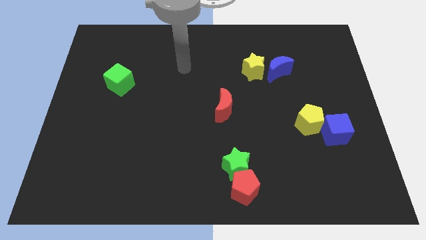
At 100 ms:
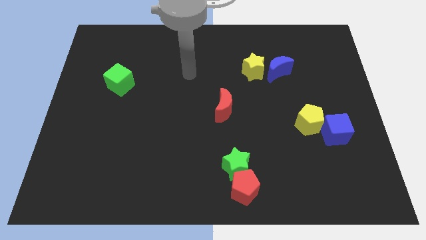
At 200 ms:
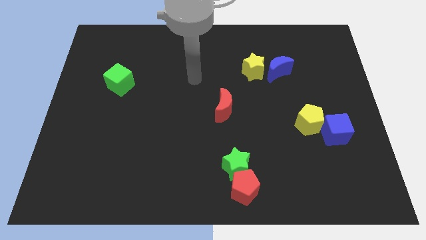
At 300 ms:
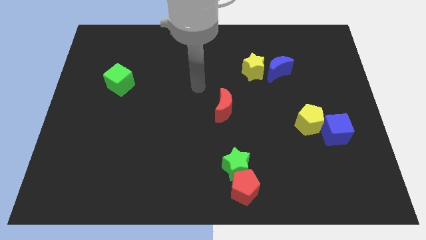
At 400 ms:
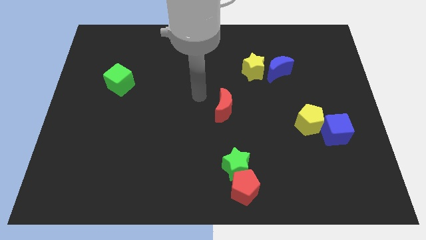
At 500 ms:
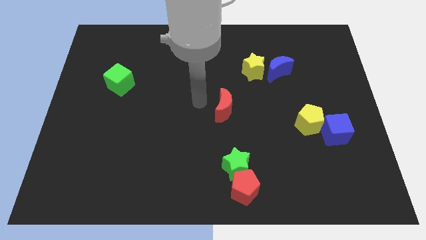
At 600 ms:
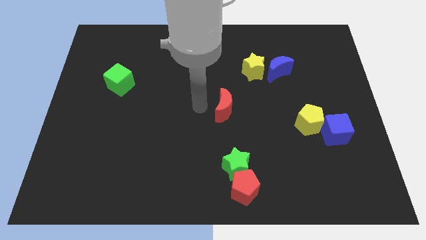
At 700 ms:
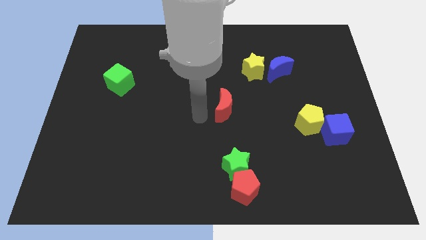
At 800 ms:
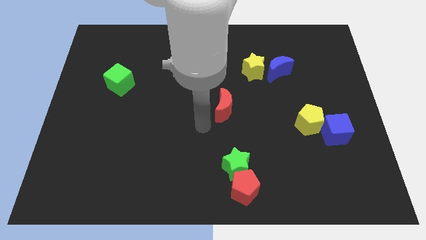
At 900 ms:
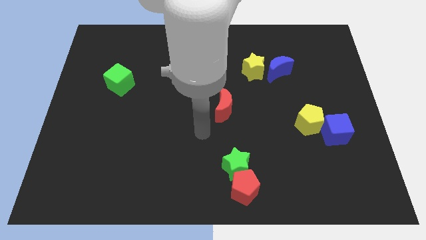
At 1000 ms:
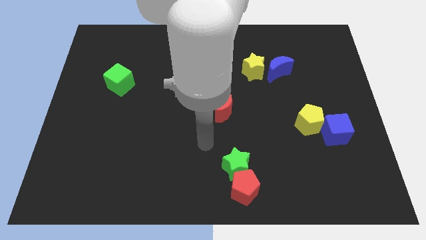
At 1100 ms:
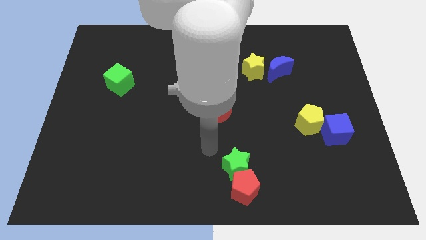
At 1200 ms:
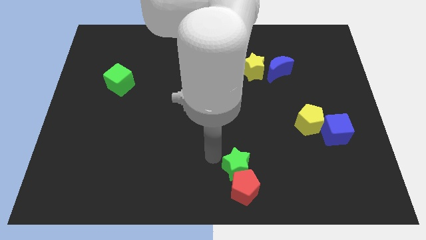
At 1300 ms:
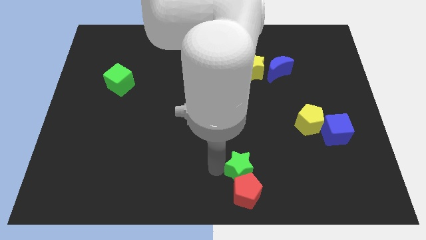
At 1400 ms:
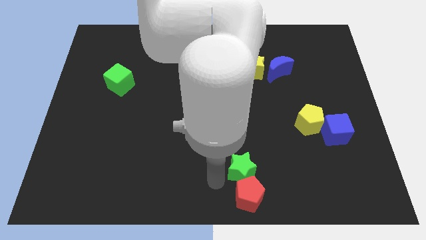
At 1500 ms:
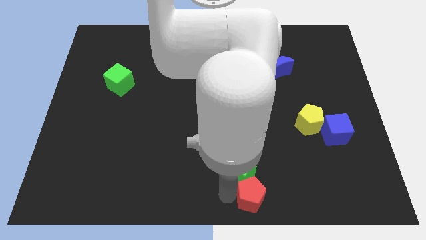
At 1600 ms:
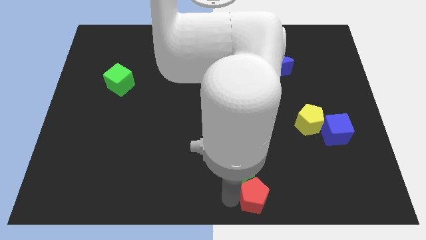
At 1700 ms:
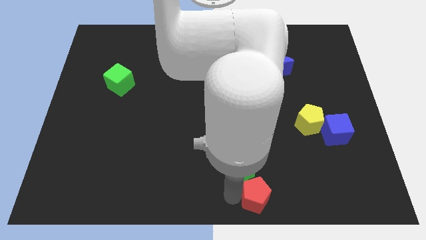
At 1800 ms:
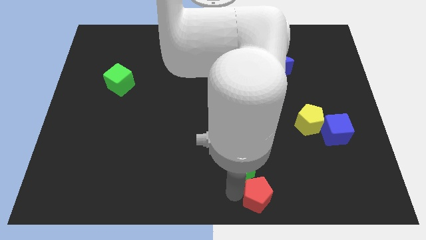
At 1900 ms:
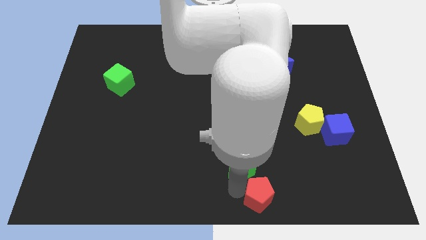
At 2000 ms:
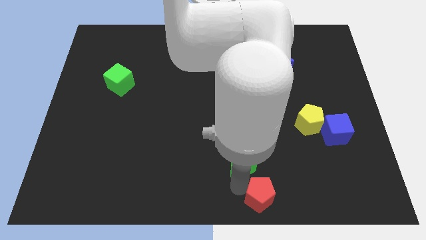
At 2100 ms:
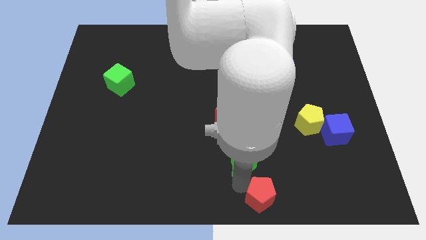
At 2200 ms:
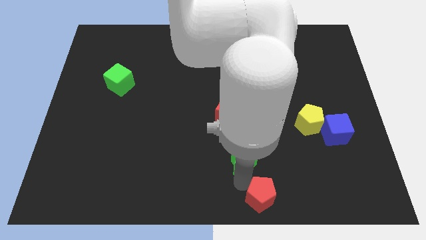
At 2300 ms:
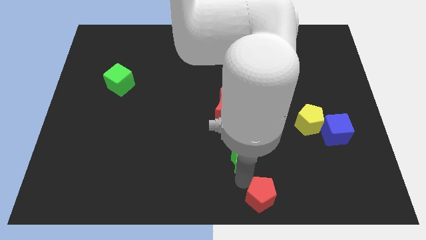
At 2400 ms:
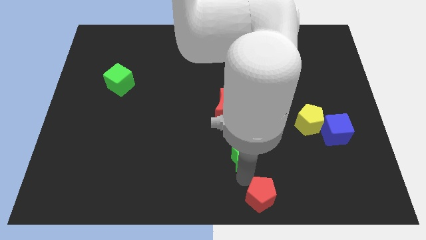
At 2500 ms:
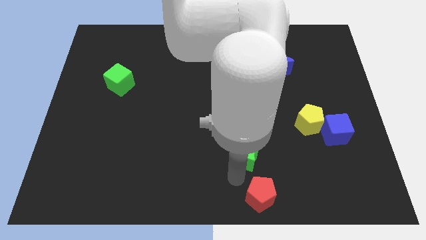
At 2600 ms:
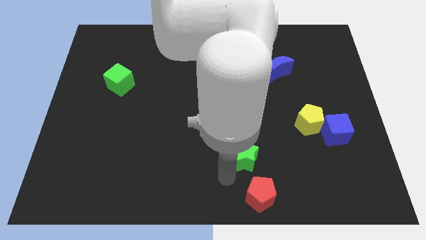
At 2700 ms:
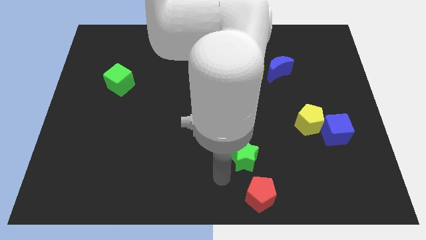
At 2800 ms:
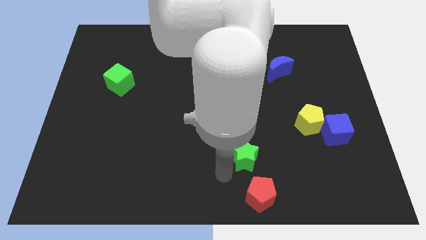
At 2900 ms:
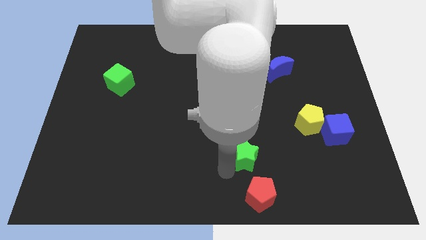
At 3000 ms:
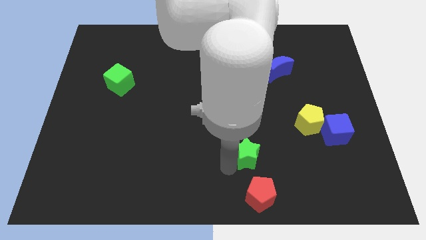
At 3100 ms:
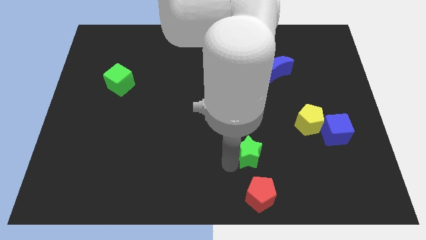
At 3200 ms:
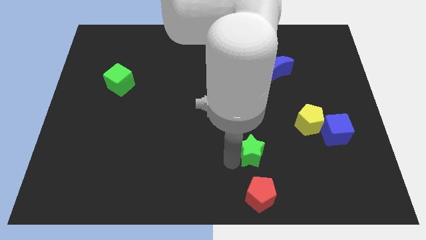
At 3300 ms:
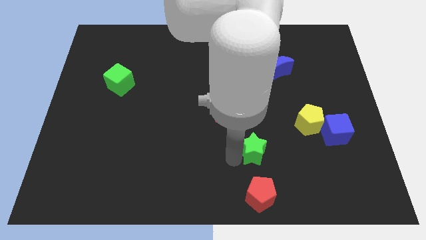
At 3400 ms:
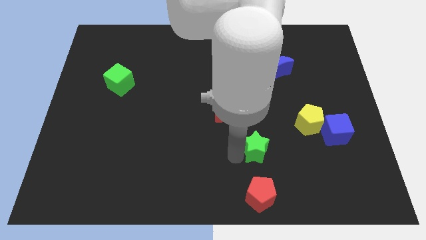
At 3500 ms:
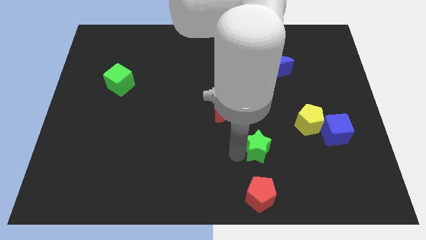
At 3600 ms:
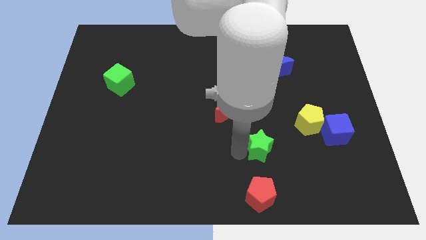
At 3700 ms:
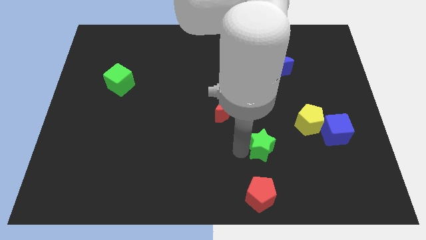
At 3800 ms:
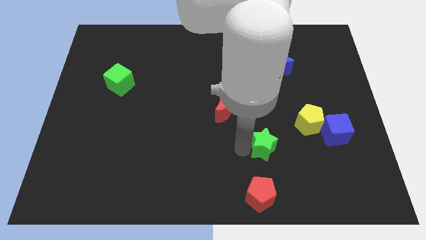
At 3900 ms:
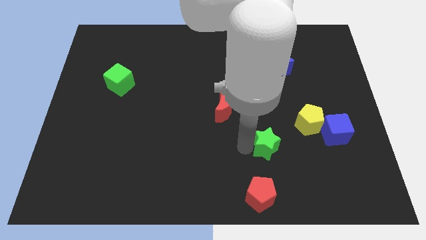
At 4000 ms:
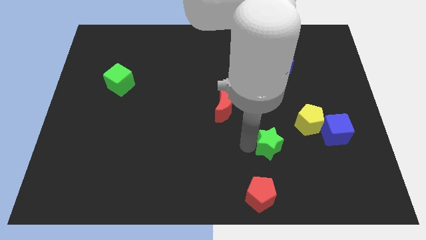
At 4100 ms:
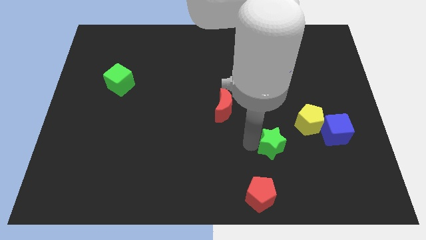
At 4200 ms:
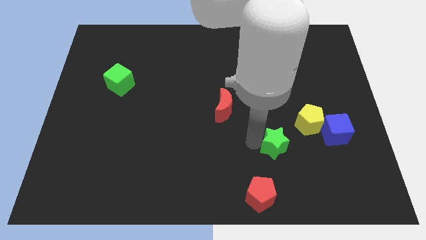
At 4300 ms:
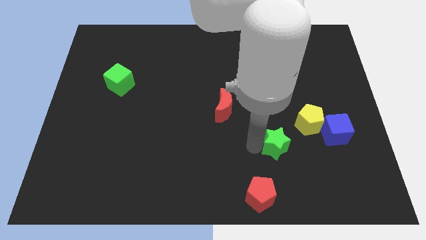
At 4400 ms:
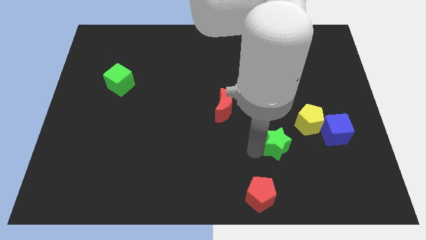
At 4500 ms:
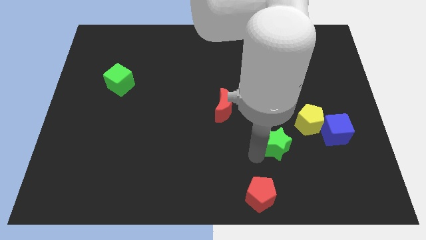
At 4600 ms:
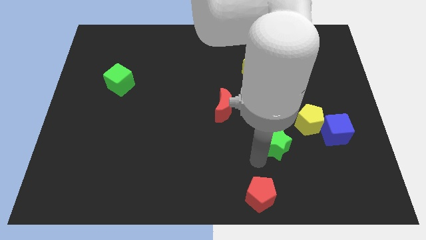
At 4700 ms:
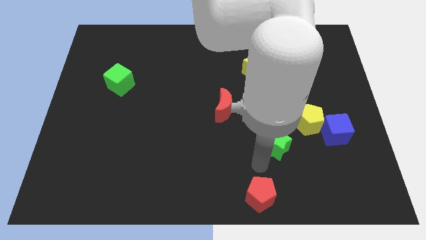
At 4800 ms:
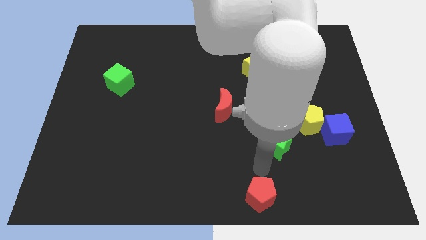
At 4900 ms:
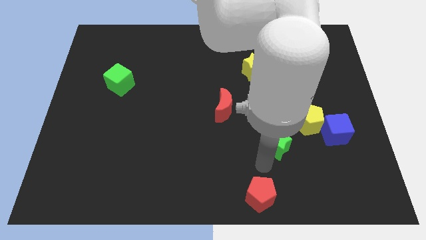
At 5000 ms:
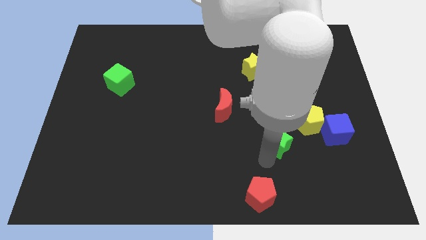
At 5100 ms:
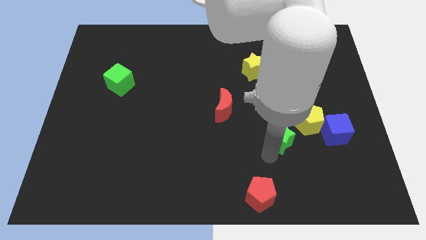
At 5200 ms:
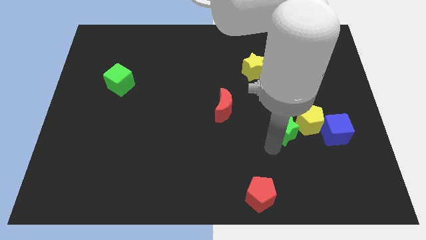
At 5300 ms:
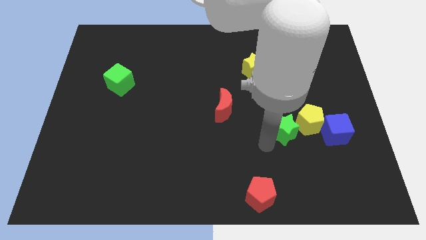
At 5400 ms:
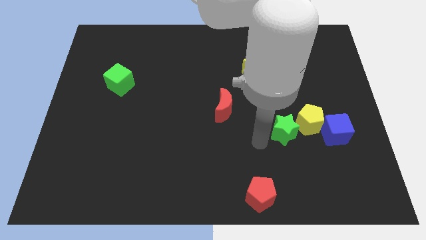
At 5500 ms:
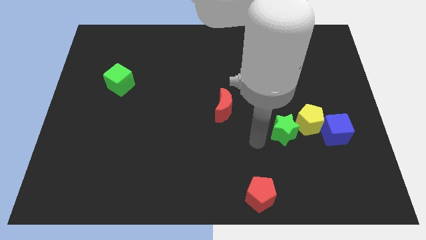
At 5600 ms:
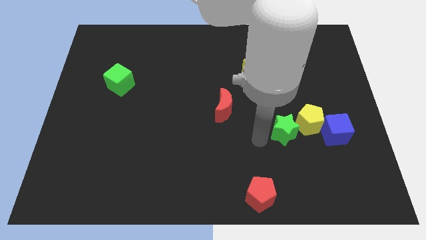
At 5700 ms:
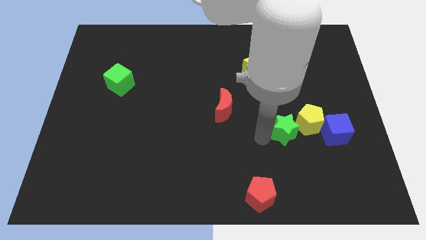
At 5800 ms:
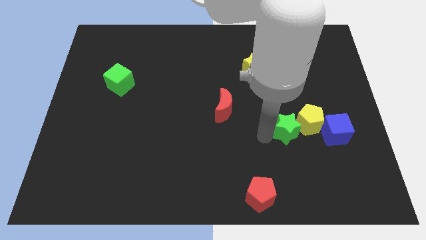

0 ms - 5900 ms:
slide the green star close to the yellow pentagon

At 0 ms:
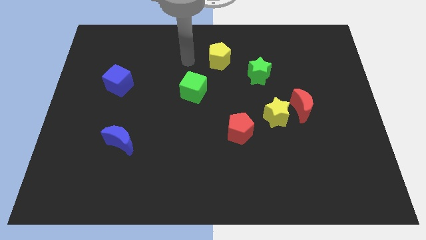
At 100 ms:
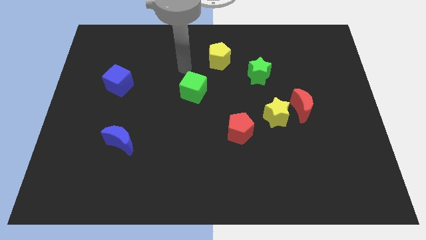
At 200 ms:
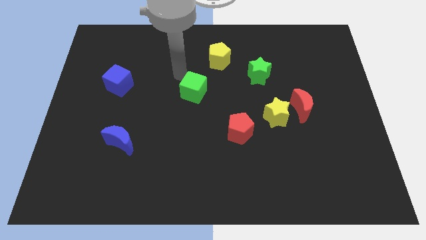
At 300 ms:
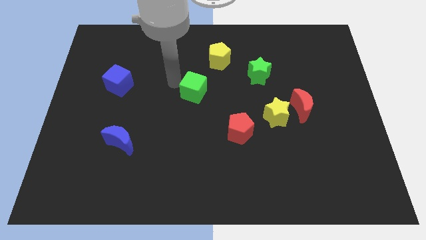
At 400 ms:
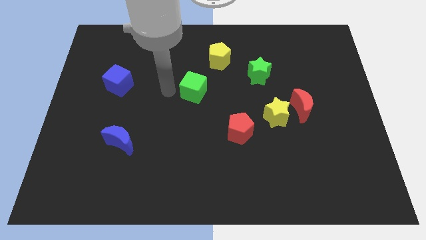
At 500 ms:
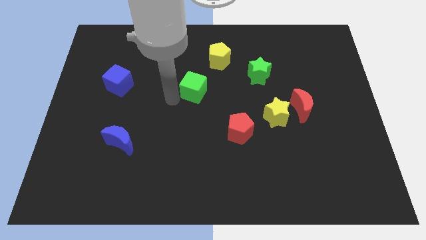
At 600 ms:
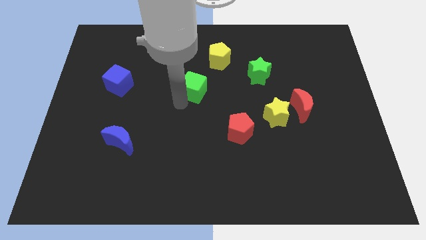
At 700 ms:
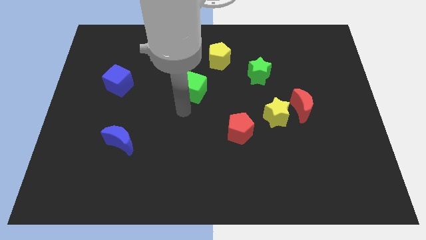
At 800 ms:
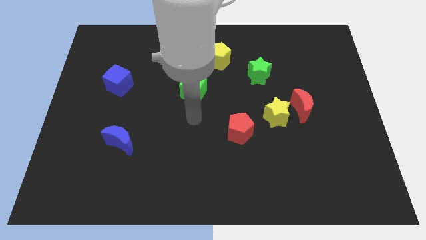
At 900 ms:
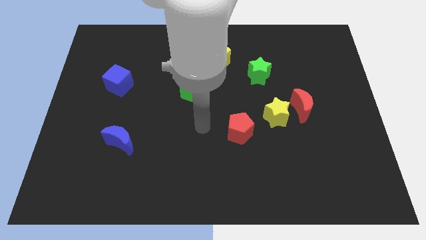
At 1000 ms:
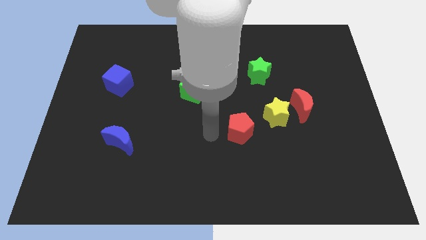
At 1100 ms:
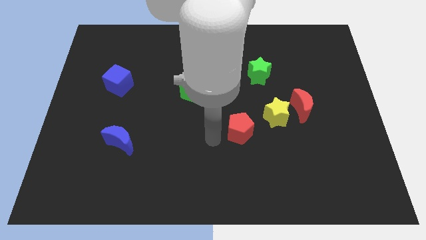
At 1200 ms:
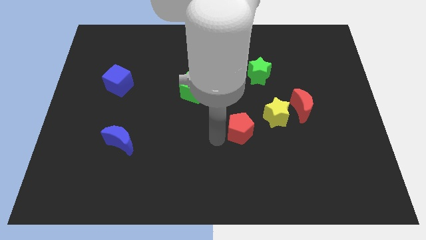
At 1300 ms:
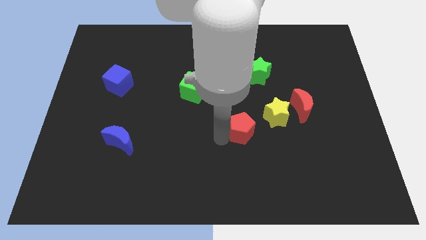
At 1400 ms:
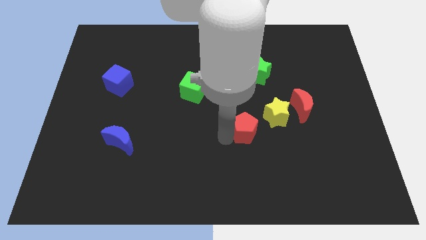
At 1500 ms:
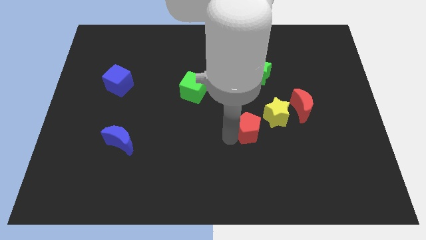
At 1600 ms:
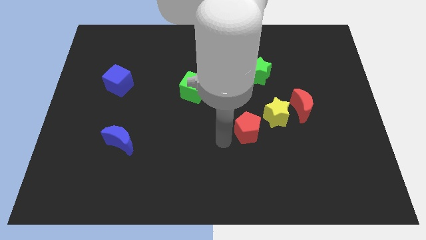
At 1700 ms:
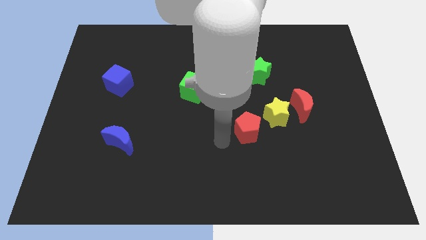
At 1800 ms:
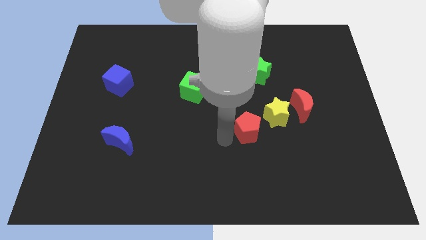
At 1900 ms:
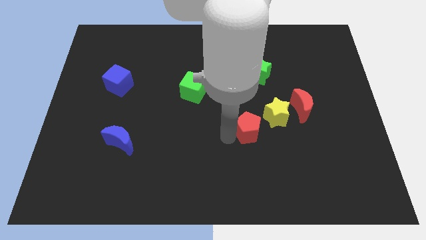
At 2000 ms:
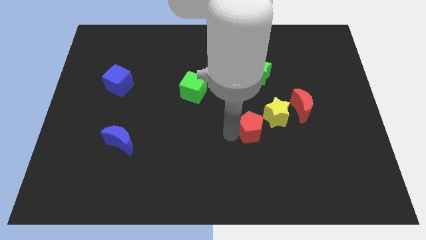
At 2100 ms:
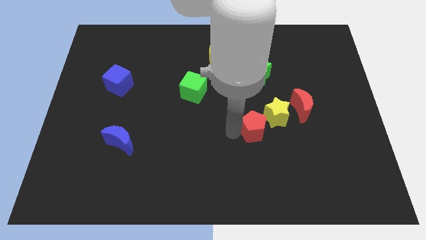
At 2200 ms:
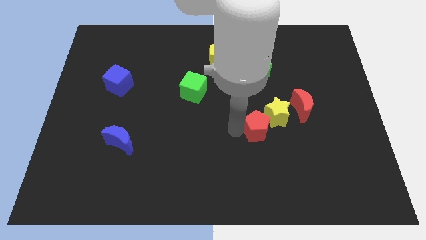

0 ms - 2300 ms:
put the red pentagon next to the yellow star
